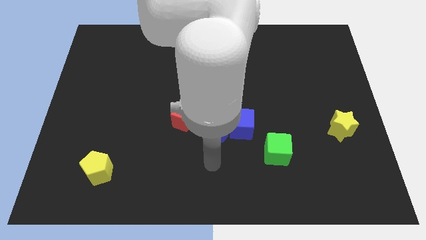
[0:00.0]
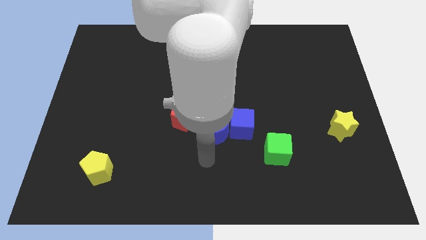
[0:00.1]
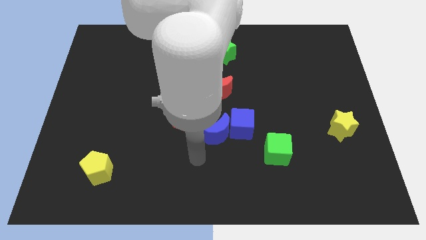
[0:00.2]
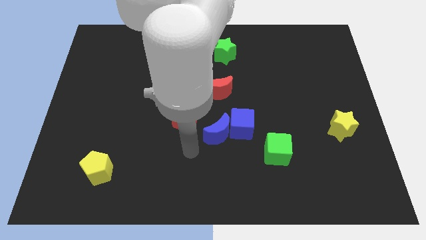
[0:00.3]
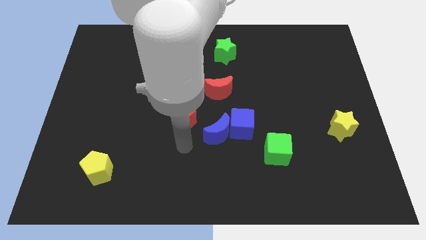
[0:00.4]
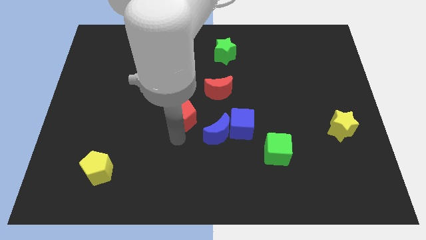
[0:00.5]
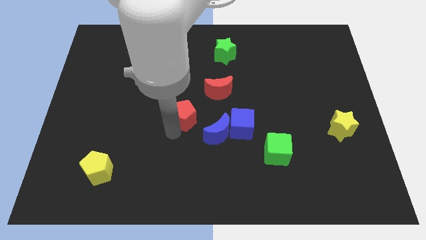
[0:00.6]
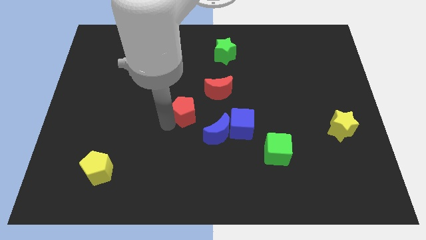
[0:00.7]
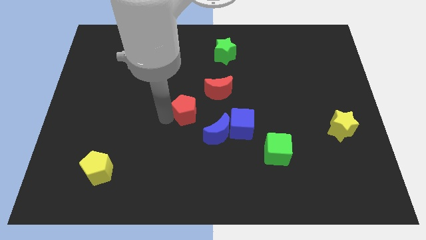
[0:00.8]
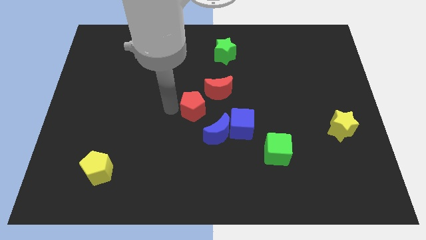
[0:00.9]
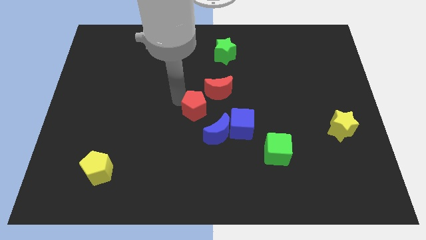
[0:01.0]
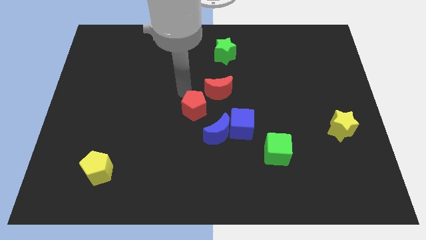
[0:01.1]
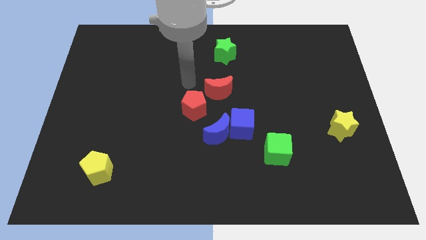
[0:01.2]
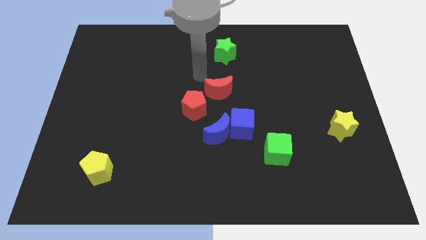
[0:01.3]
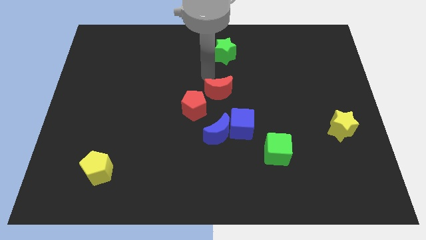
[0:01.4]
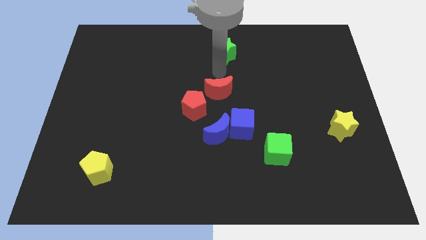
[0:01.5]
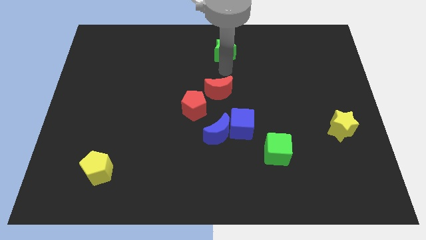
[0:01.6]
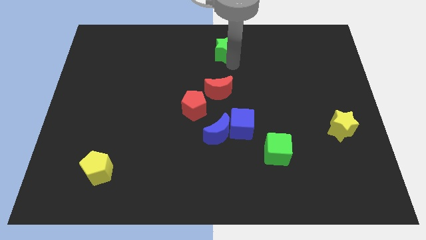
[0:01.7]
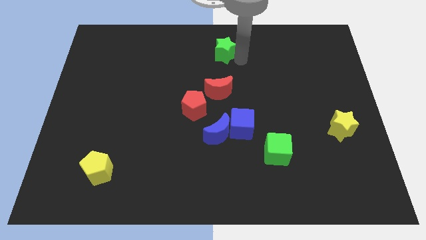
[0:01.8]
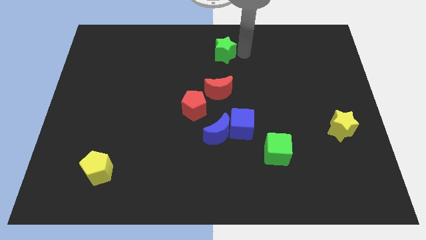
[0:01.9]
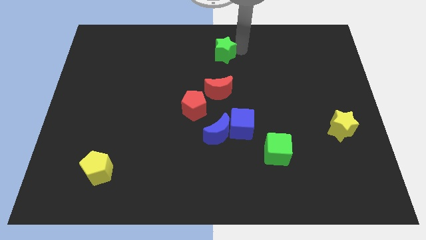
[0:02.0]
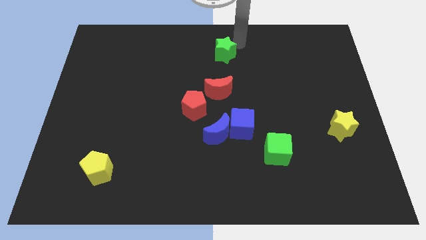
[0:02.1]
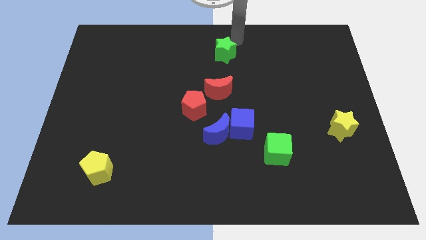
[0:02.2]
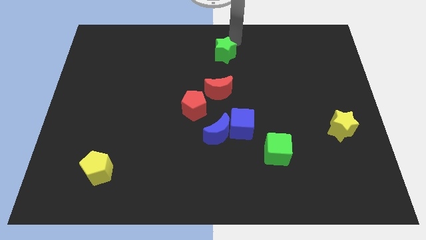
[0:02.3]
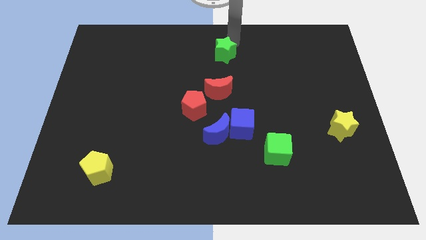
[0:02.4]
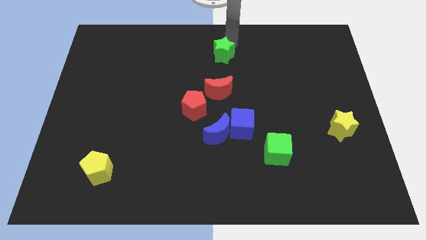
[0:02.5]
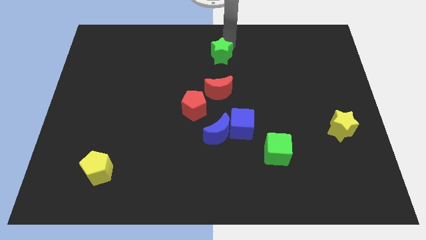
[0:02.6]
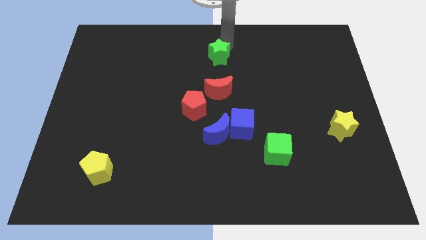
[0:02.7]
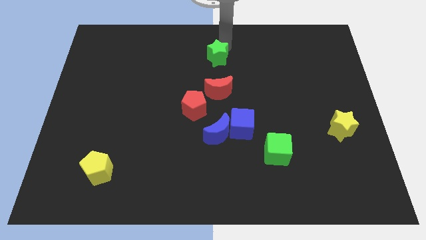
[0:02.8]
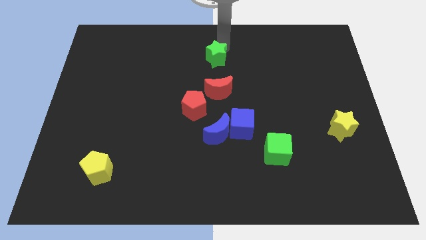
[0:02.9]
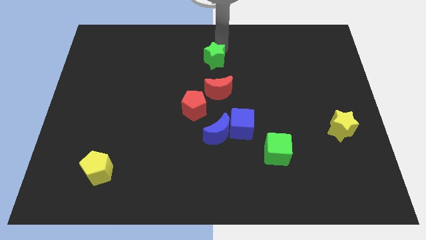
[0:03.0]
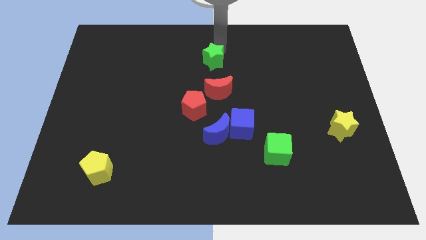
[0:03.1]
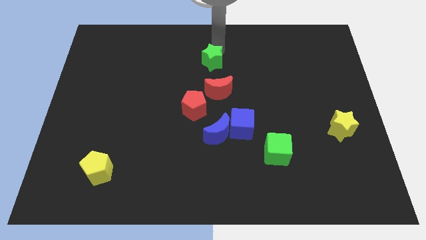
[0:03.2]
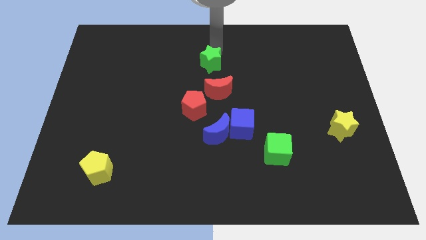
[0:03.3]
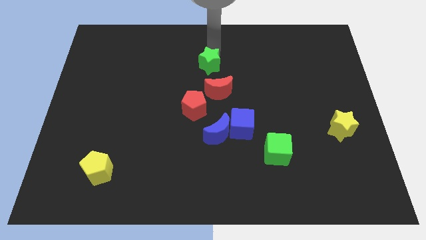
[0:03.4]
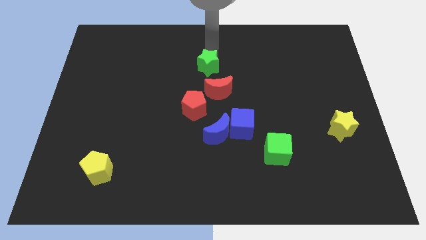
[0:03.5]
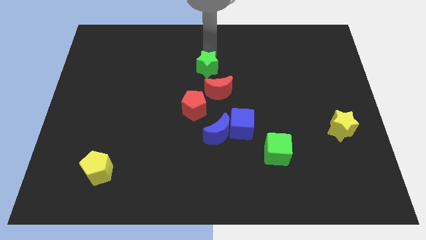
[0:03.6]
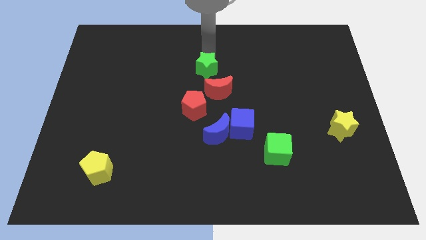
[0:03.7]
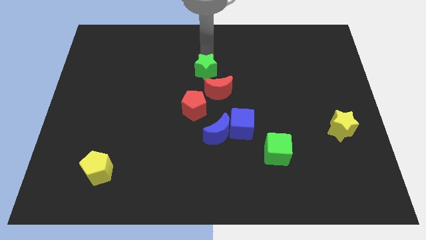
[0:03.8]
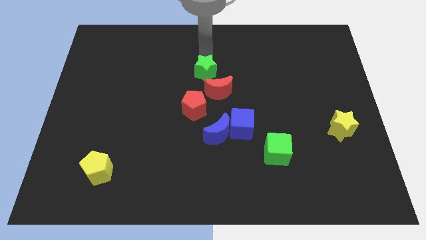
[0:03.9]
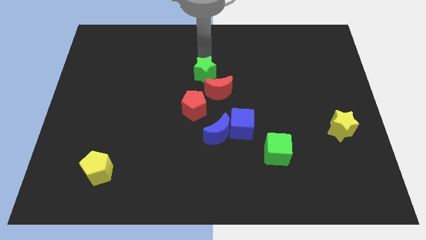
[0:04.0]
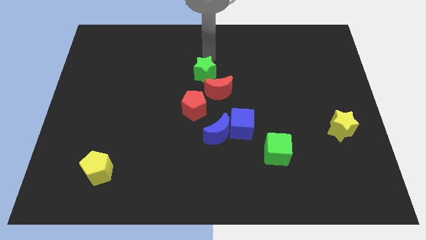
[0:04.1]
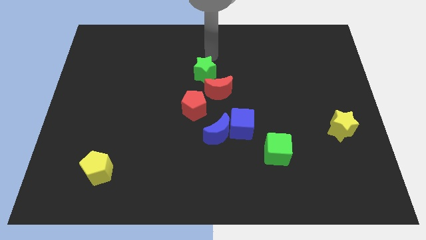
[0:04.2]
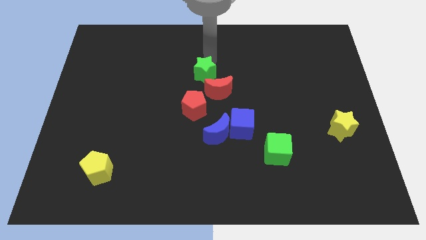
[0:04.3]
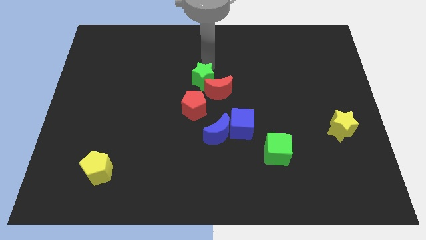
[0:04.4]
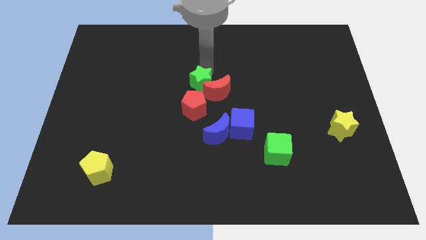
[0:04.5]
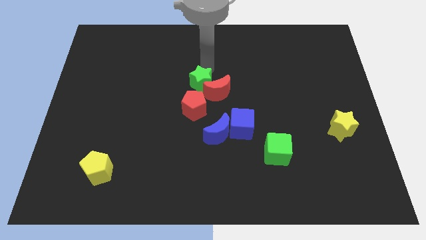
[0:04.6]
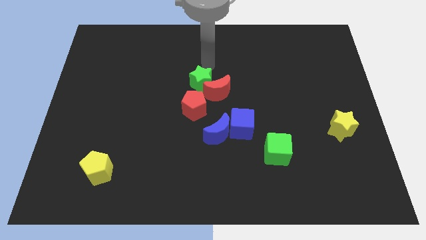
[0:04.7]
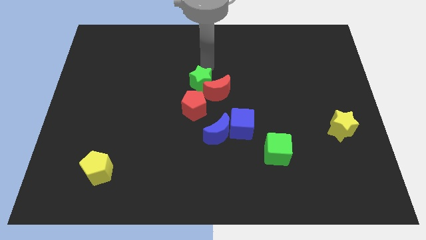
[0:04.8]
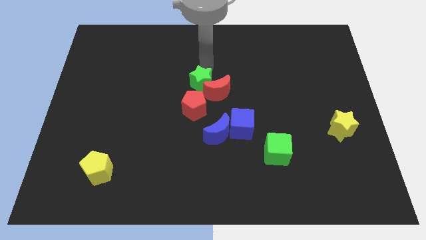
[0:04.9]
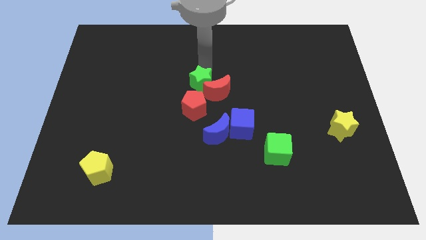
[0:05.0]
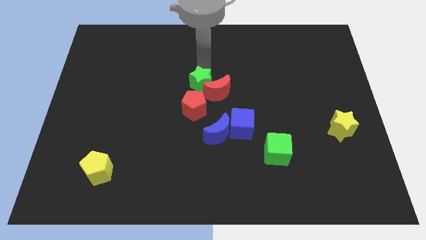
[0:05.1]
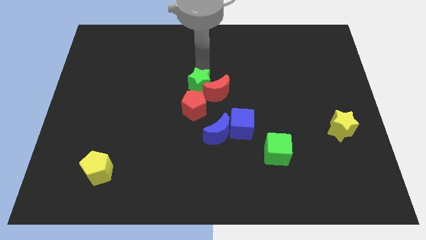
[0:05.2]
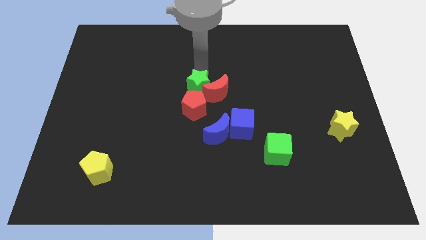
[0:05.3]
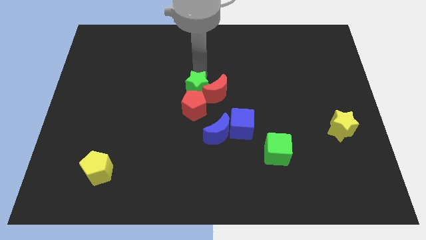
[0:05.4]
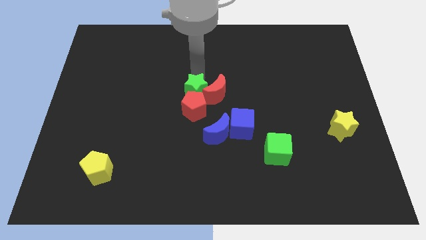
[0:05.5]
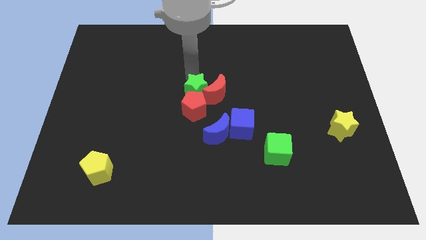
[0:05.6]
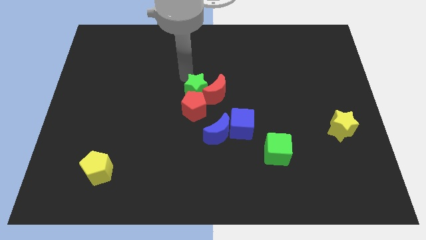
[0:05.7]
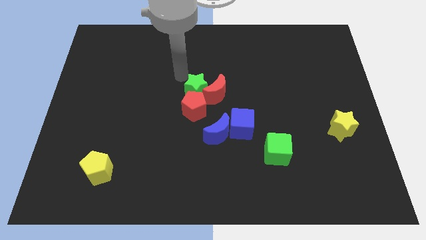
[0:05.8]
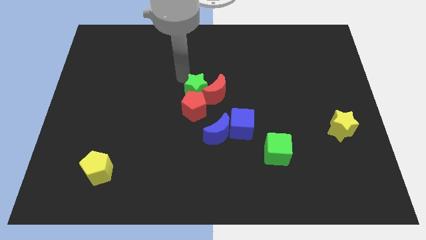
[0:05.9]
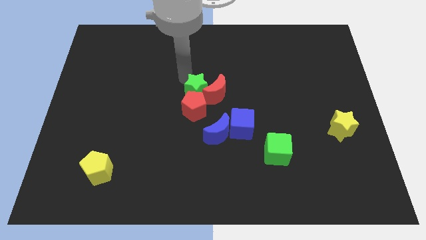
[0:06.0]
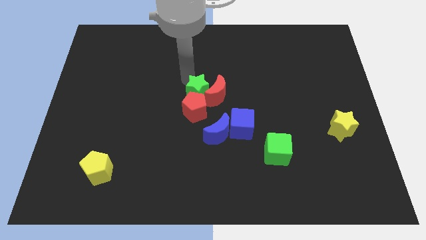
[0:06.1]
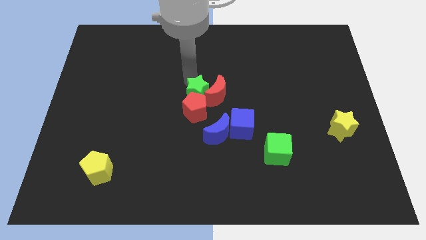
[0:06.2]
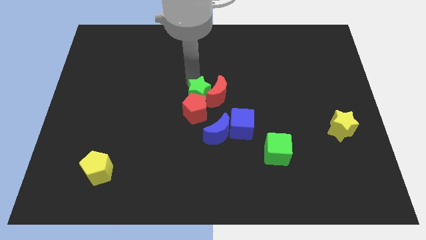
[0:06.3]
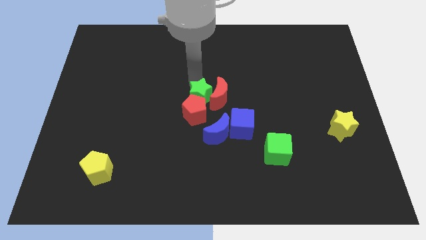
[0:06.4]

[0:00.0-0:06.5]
put the green star to the top left side of the blue cube
